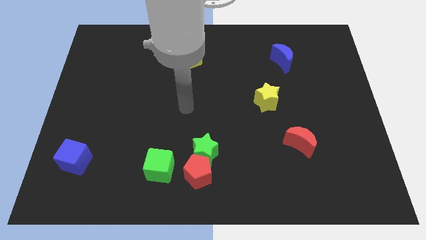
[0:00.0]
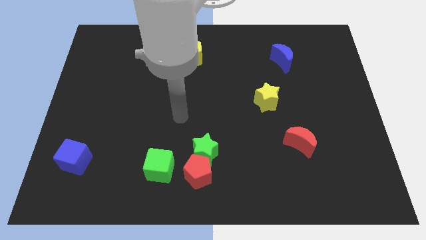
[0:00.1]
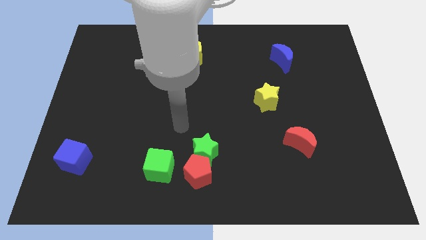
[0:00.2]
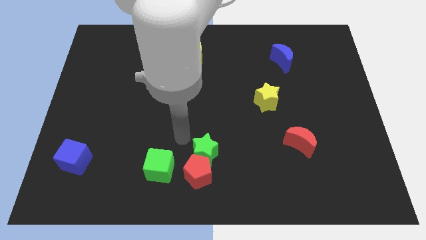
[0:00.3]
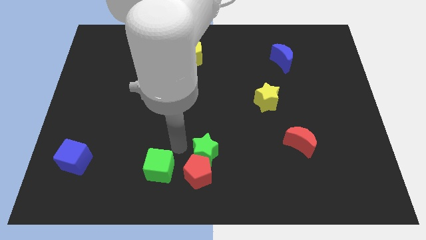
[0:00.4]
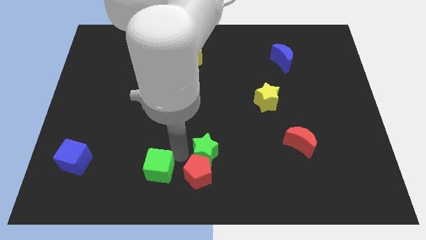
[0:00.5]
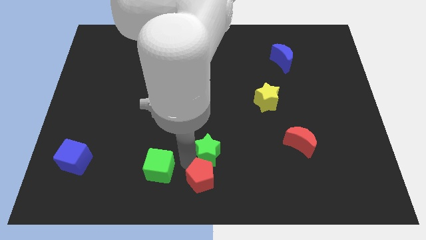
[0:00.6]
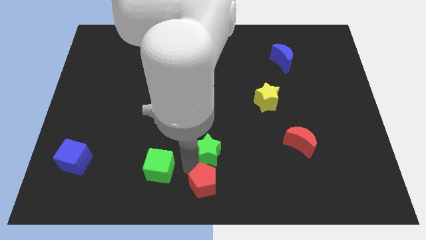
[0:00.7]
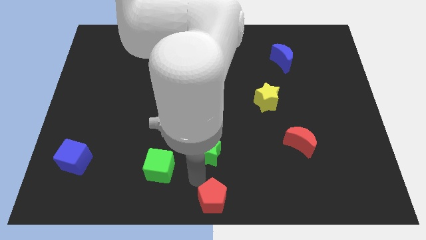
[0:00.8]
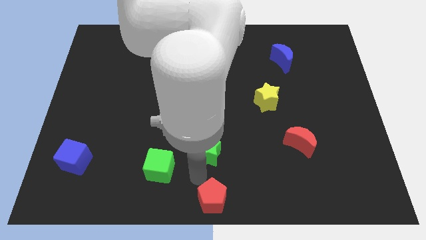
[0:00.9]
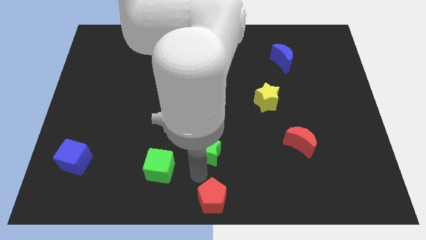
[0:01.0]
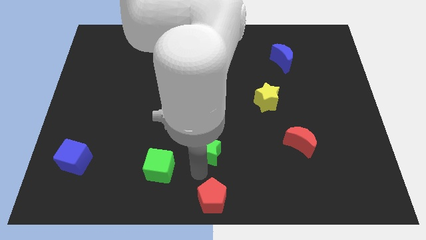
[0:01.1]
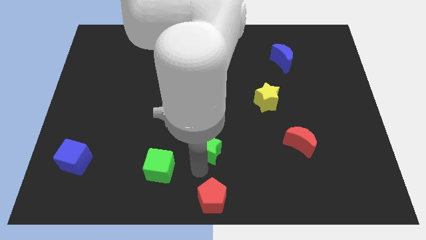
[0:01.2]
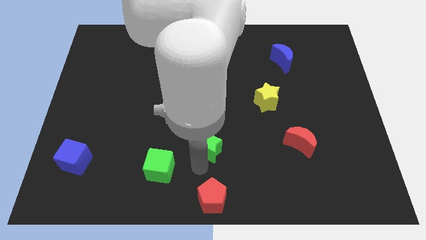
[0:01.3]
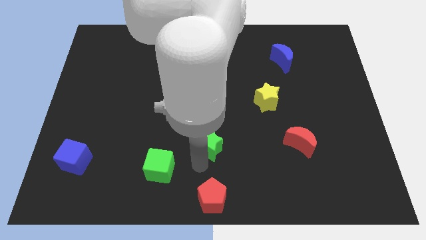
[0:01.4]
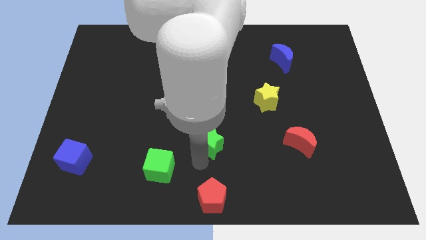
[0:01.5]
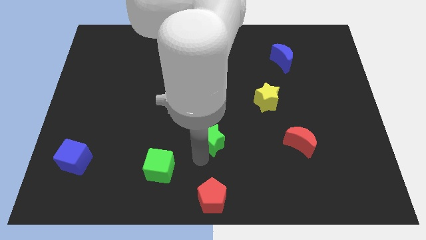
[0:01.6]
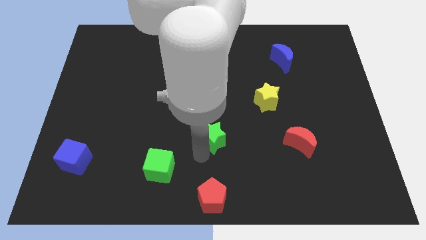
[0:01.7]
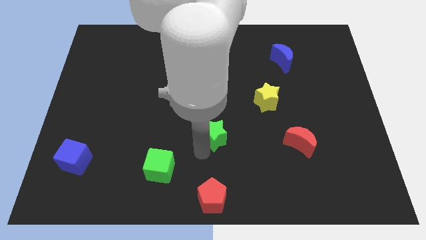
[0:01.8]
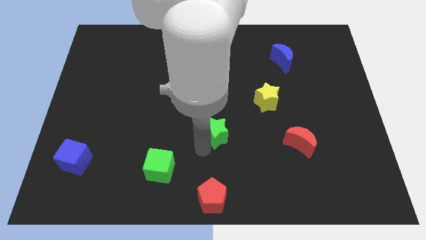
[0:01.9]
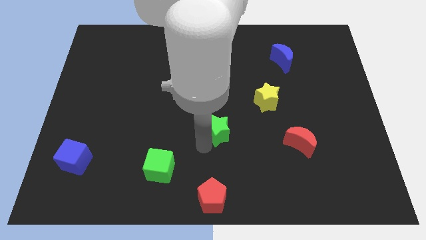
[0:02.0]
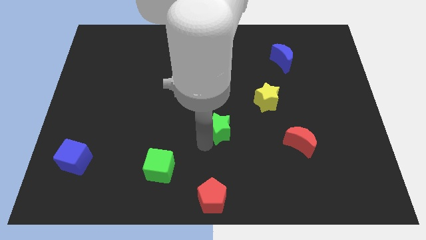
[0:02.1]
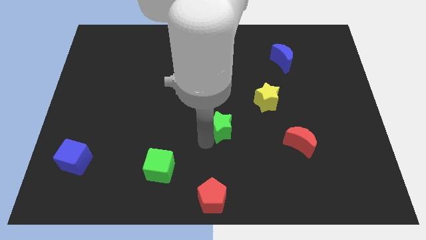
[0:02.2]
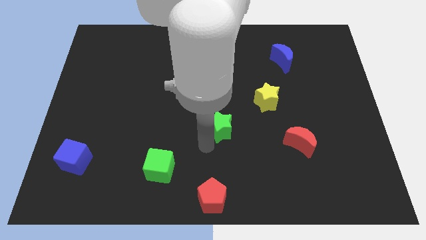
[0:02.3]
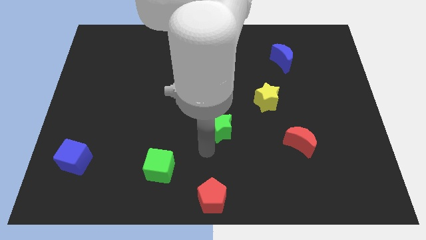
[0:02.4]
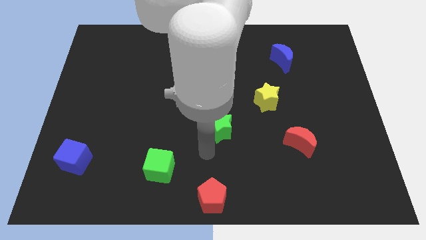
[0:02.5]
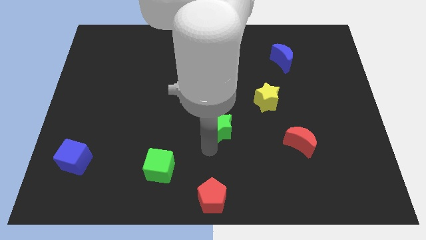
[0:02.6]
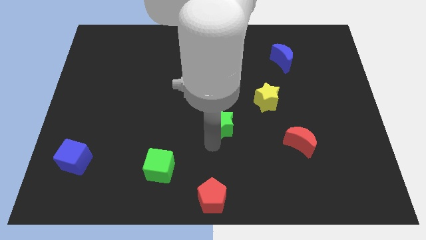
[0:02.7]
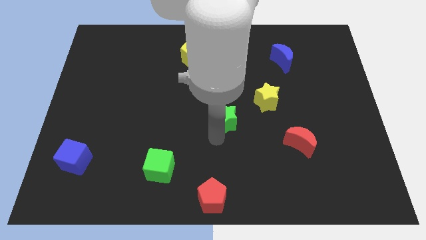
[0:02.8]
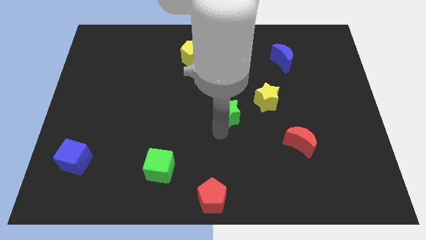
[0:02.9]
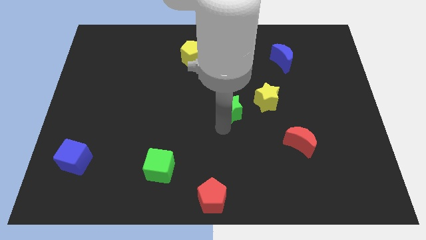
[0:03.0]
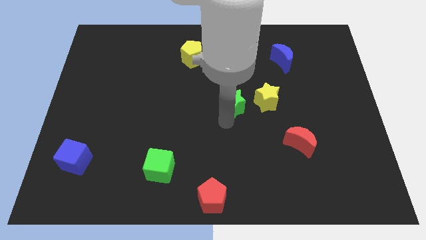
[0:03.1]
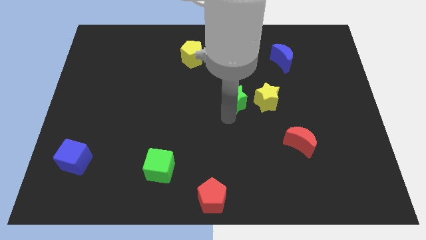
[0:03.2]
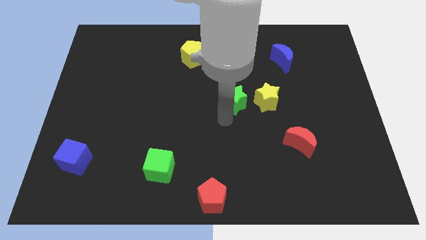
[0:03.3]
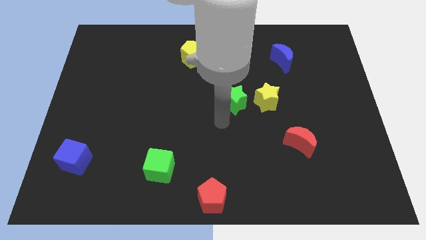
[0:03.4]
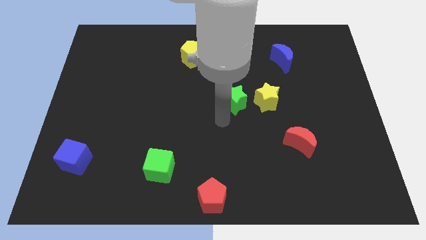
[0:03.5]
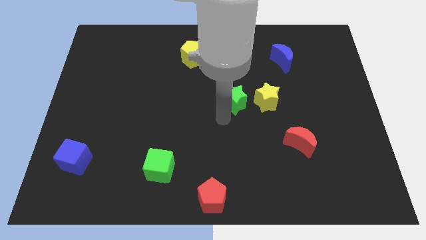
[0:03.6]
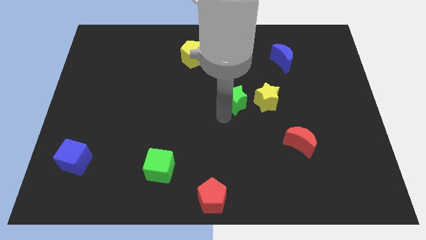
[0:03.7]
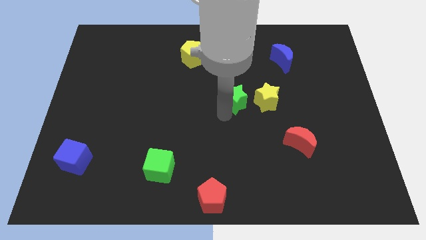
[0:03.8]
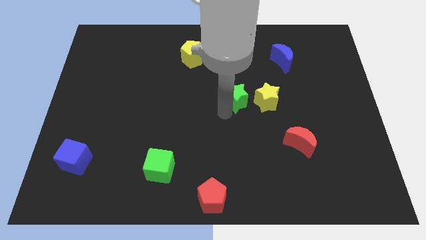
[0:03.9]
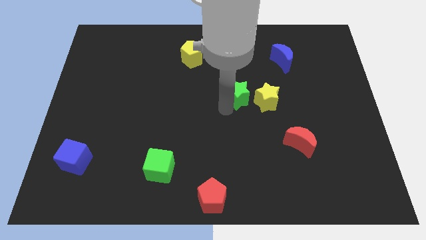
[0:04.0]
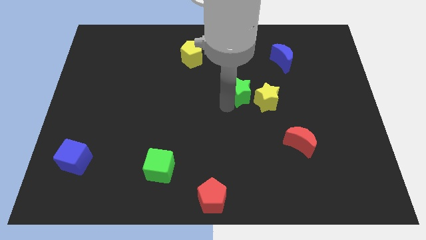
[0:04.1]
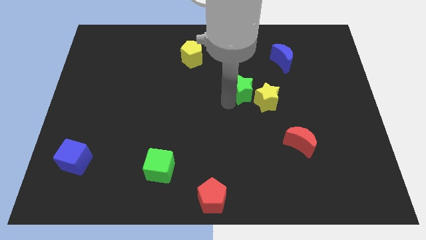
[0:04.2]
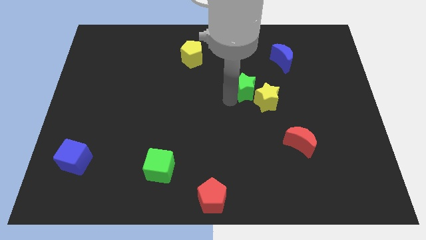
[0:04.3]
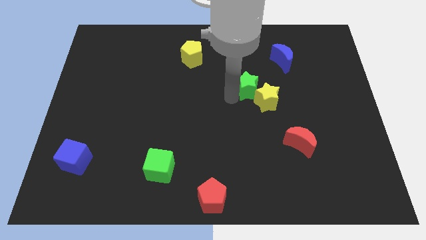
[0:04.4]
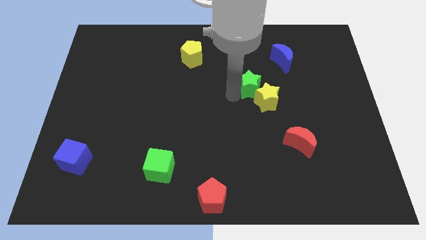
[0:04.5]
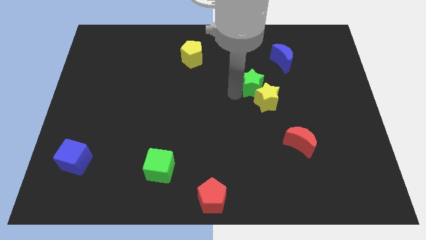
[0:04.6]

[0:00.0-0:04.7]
move the green star up and right

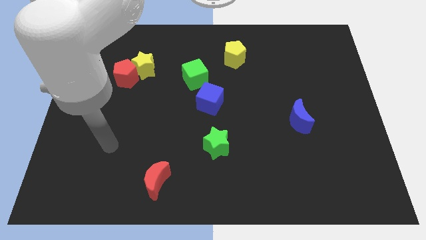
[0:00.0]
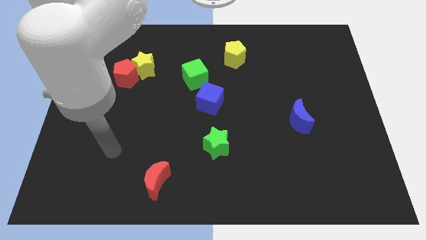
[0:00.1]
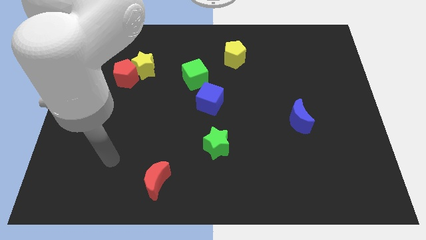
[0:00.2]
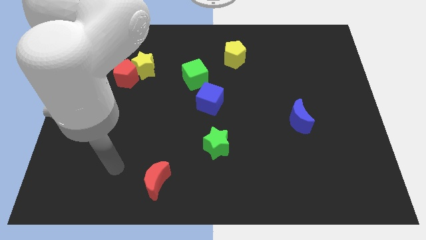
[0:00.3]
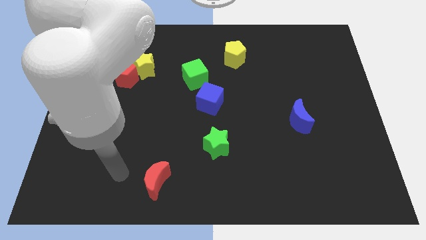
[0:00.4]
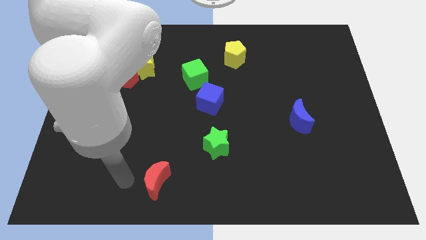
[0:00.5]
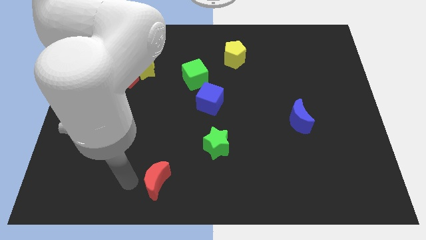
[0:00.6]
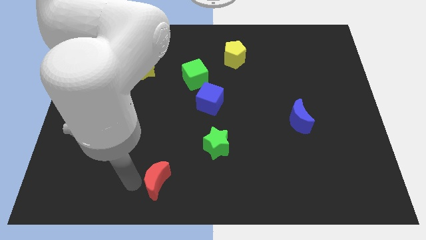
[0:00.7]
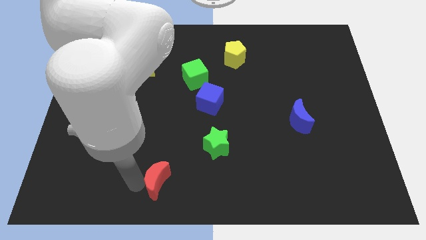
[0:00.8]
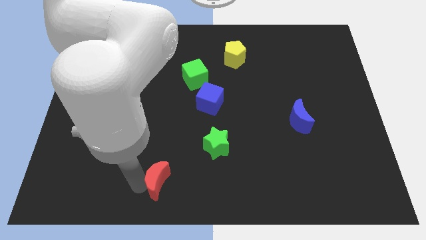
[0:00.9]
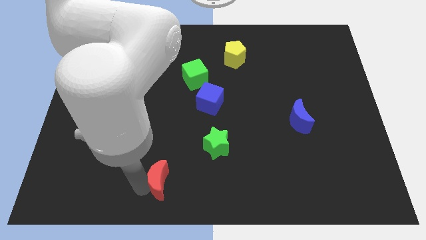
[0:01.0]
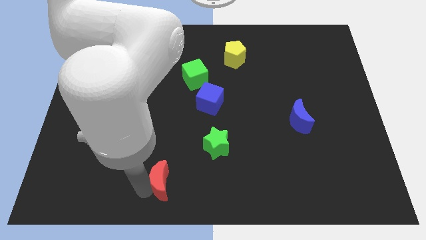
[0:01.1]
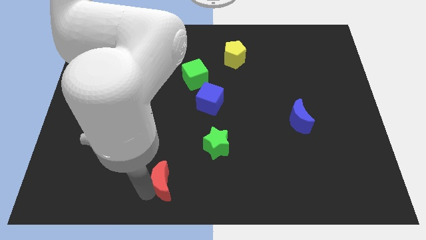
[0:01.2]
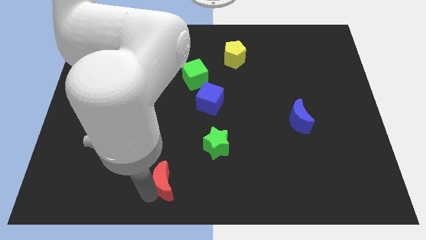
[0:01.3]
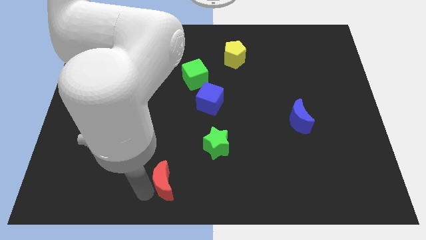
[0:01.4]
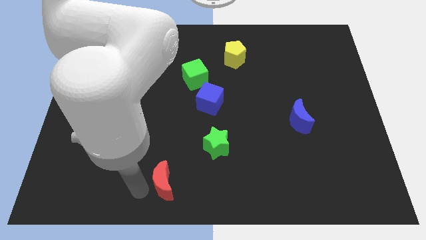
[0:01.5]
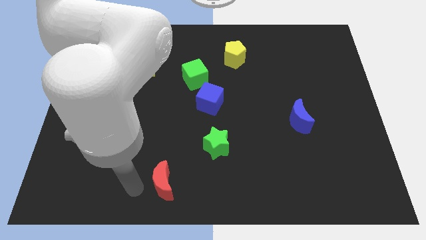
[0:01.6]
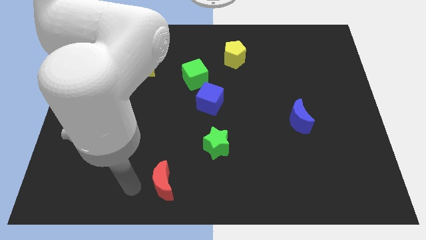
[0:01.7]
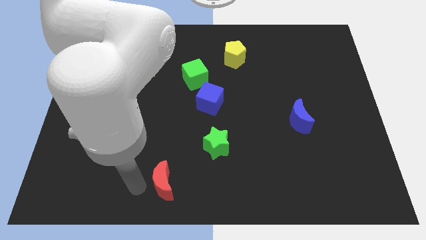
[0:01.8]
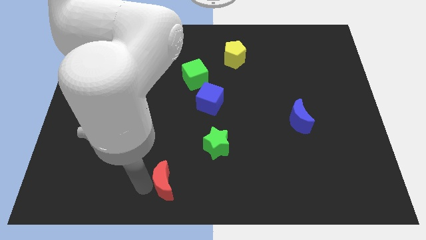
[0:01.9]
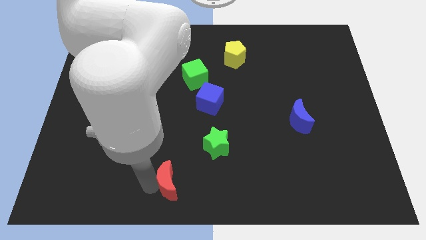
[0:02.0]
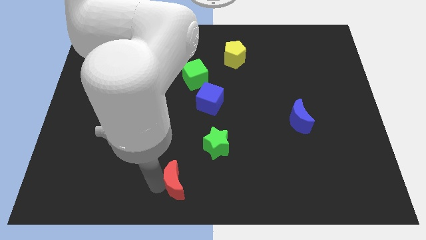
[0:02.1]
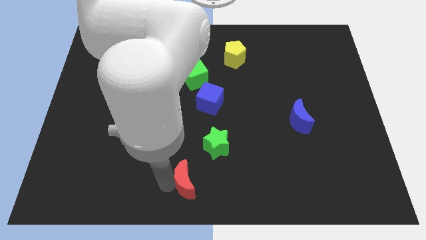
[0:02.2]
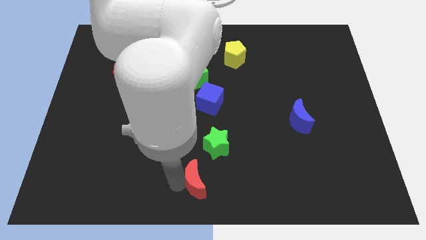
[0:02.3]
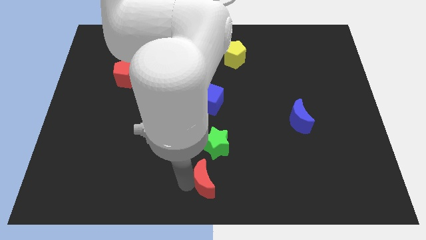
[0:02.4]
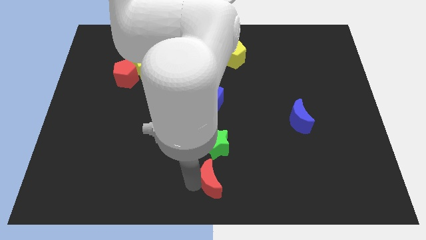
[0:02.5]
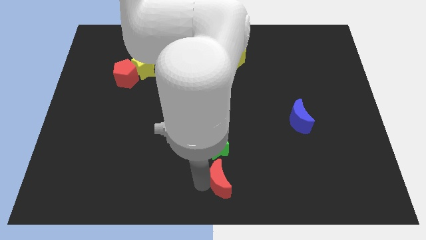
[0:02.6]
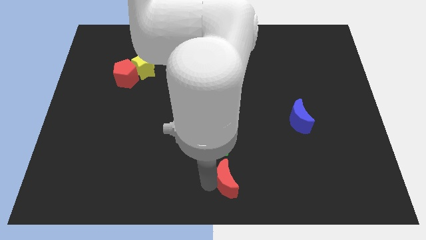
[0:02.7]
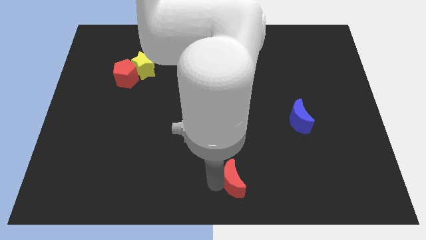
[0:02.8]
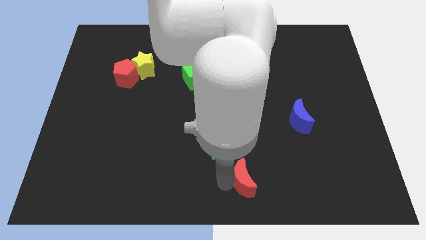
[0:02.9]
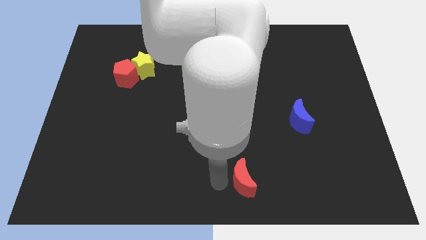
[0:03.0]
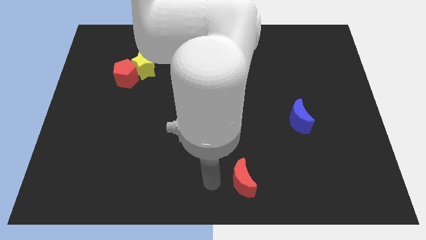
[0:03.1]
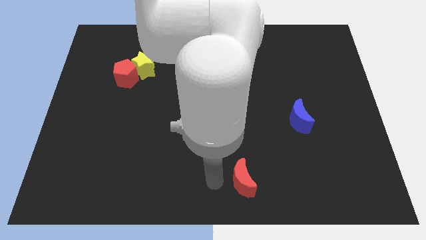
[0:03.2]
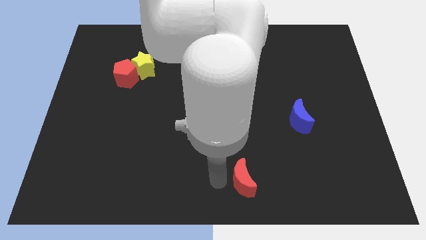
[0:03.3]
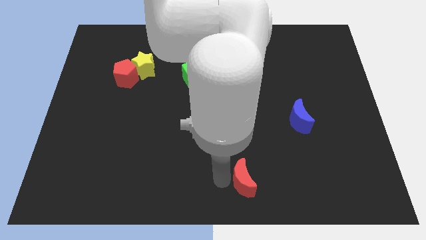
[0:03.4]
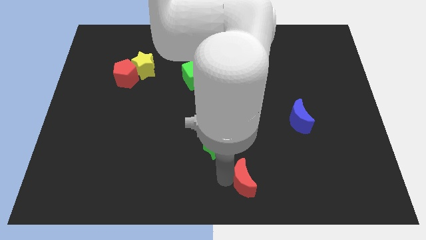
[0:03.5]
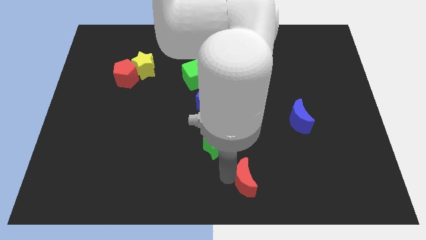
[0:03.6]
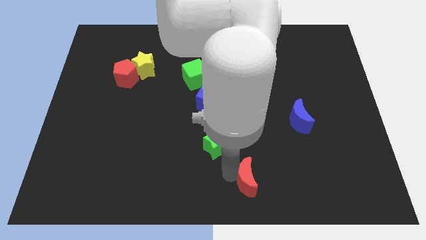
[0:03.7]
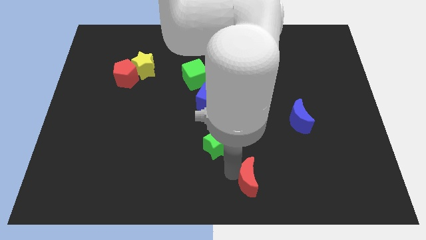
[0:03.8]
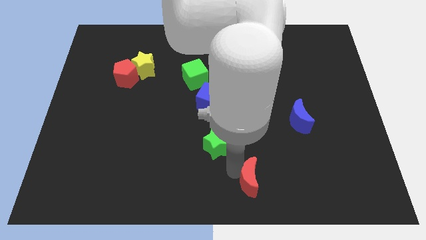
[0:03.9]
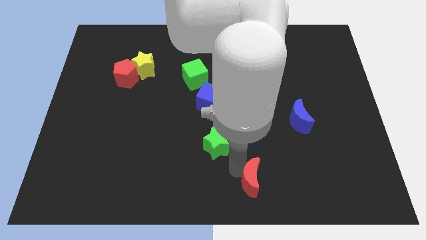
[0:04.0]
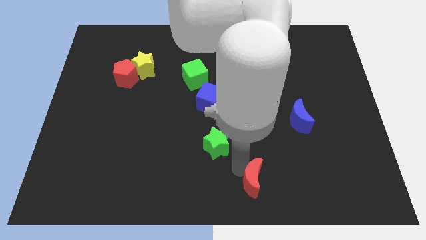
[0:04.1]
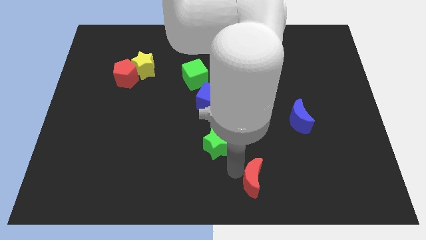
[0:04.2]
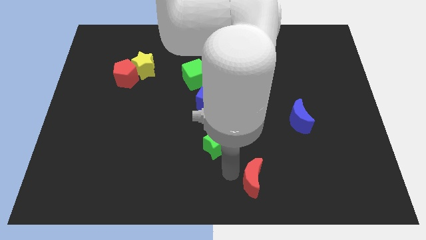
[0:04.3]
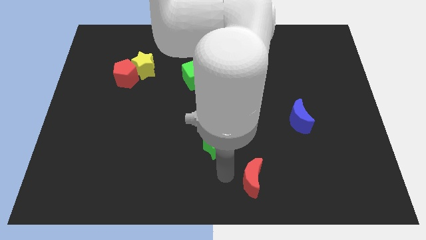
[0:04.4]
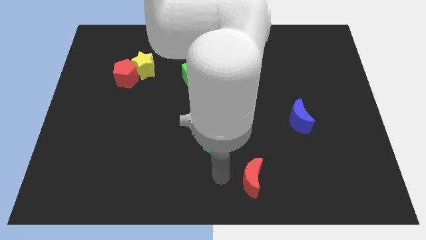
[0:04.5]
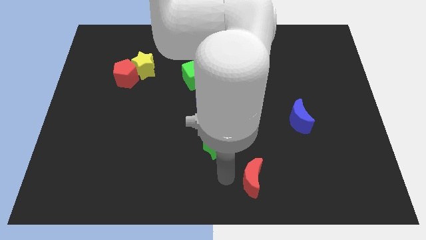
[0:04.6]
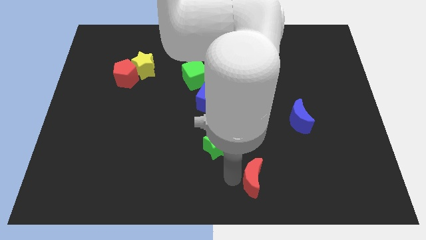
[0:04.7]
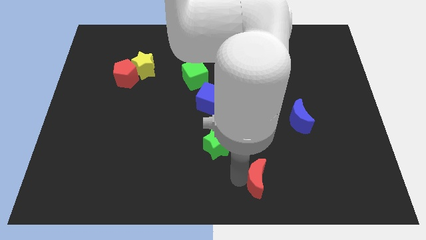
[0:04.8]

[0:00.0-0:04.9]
push the red moon to the right
